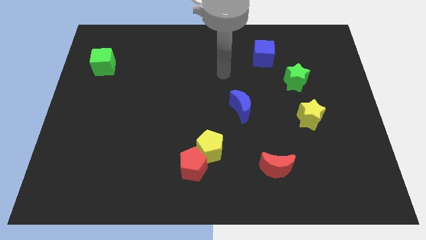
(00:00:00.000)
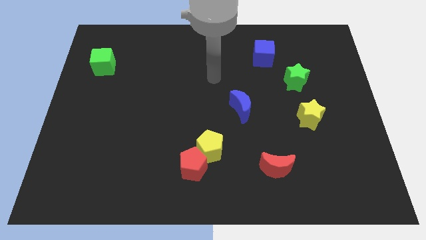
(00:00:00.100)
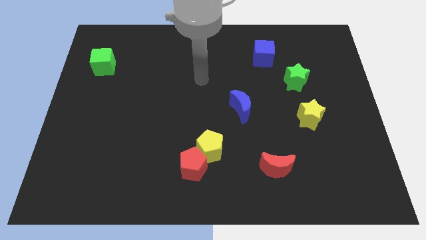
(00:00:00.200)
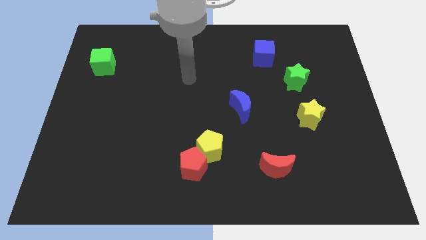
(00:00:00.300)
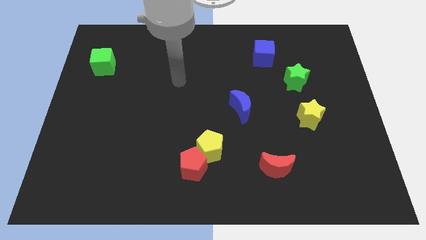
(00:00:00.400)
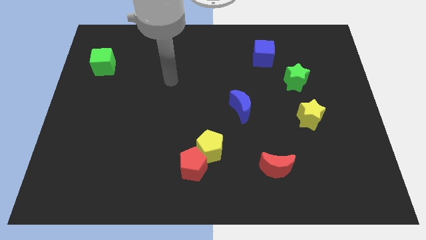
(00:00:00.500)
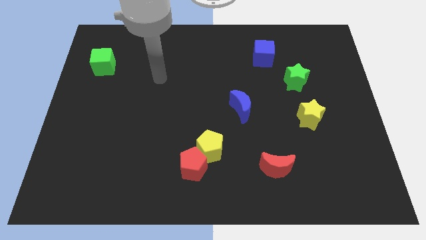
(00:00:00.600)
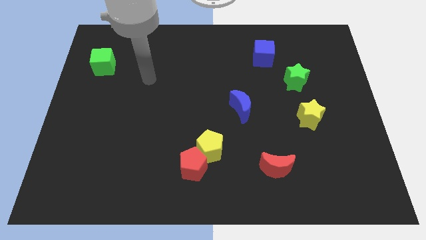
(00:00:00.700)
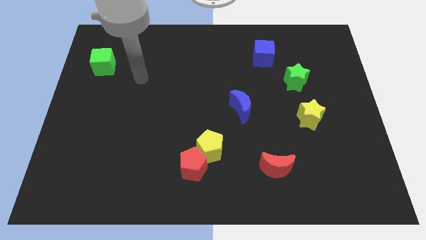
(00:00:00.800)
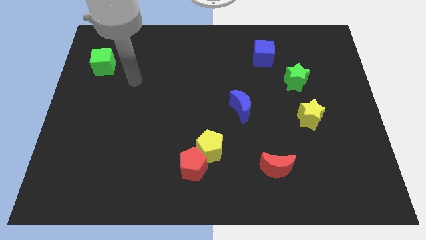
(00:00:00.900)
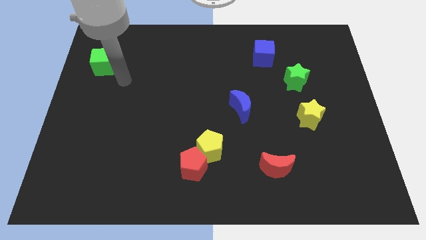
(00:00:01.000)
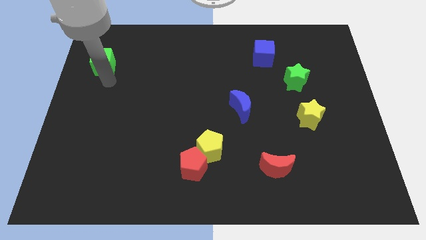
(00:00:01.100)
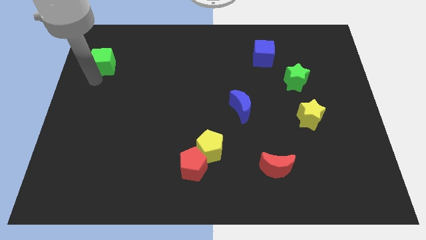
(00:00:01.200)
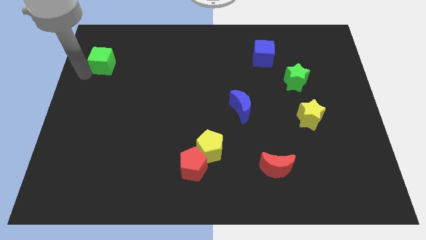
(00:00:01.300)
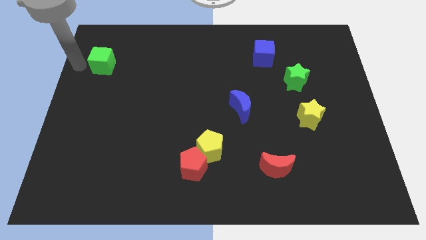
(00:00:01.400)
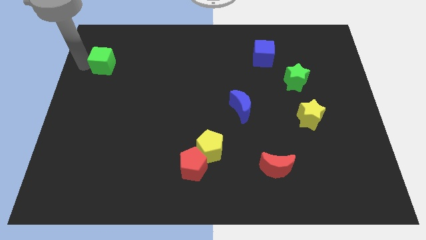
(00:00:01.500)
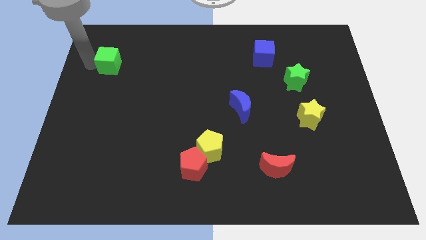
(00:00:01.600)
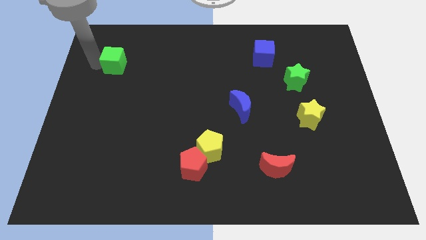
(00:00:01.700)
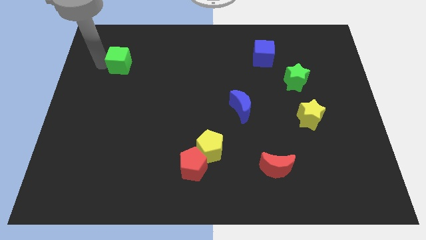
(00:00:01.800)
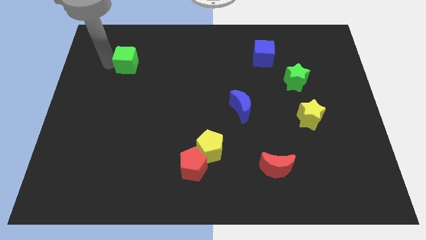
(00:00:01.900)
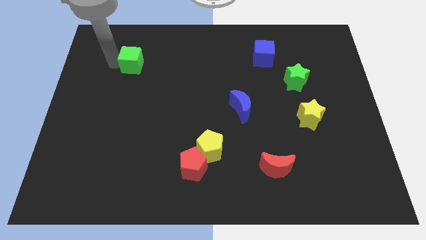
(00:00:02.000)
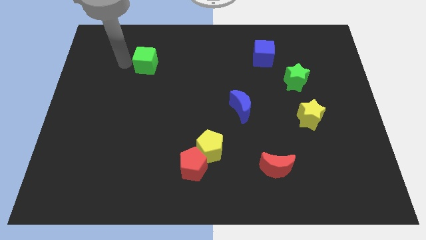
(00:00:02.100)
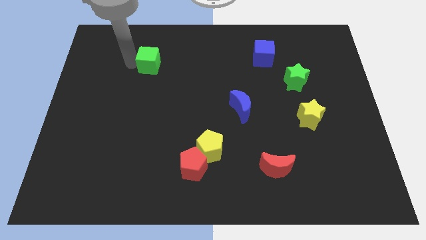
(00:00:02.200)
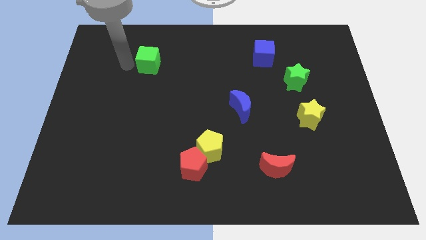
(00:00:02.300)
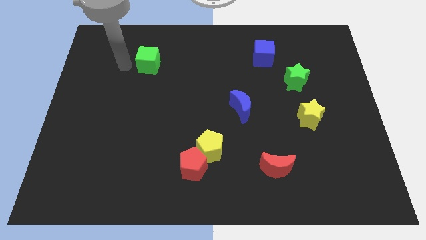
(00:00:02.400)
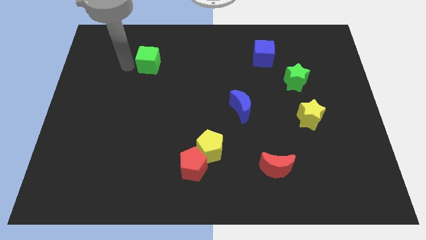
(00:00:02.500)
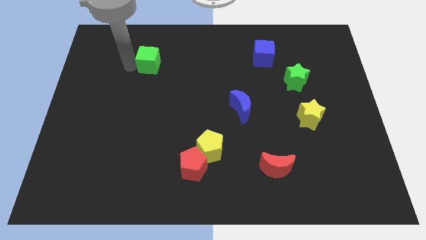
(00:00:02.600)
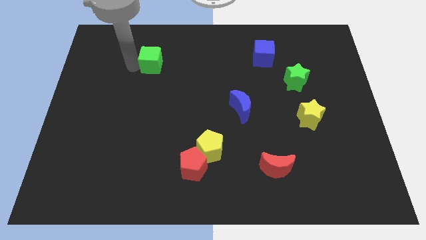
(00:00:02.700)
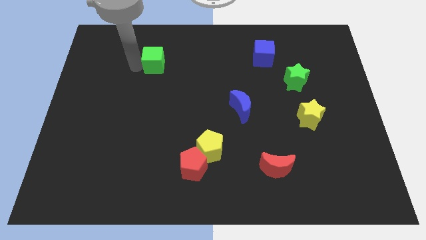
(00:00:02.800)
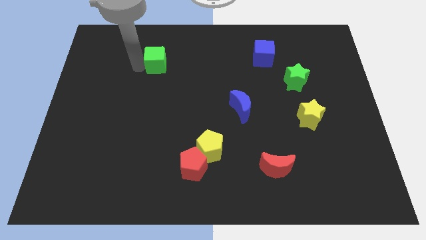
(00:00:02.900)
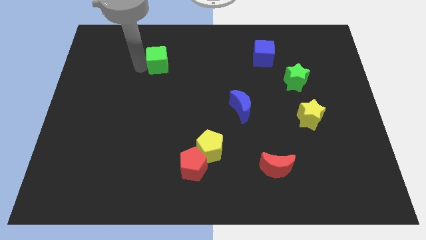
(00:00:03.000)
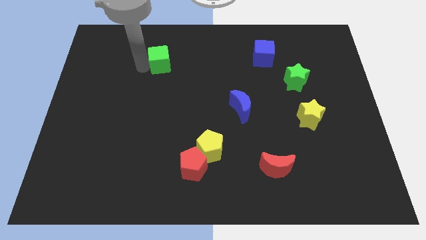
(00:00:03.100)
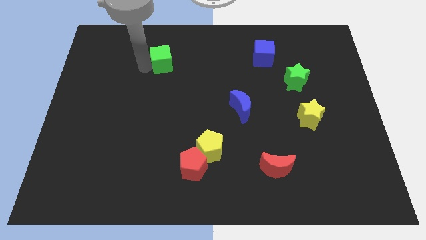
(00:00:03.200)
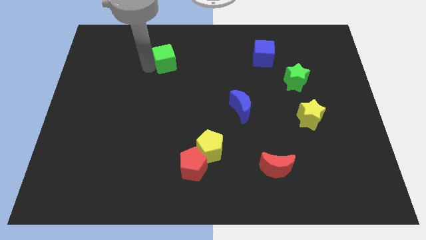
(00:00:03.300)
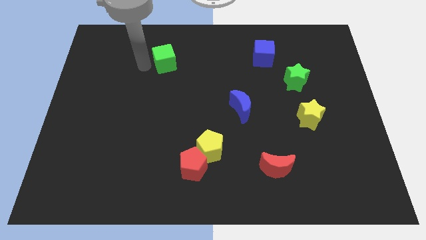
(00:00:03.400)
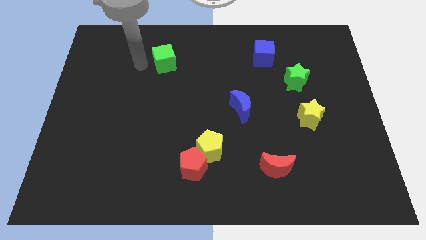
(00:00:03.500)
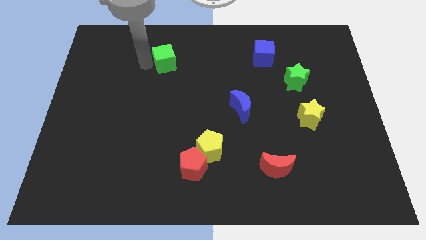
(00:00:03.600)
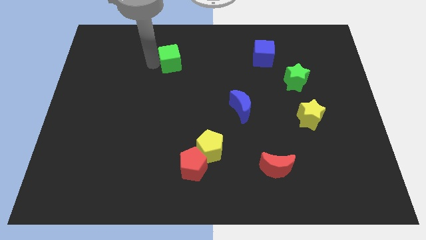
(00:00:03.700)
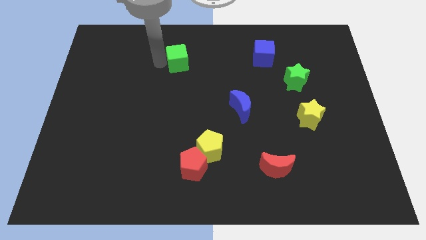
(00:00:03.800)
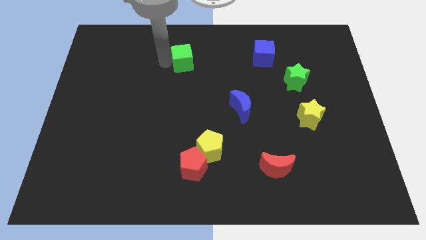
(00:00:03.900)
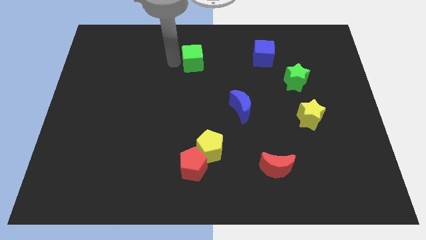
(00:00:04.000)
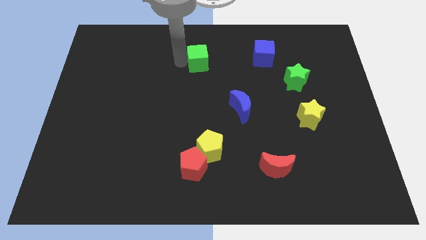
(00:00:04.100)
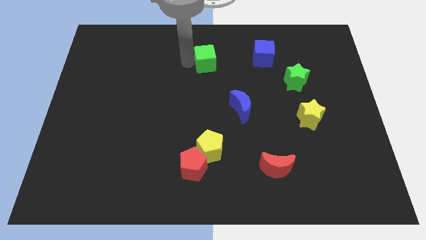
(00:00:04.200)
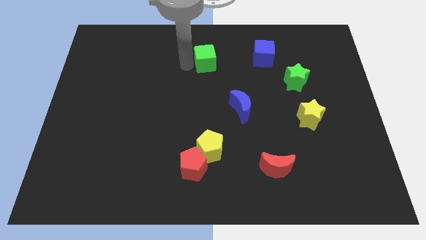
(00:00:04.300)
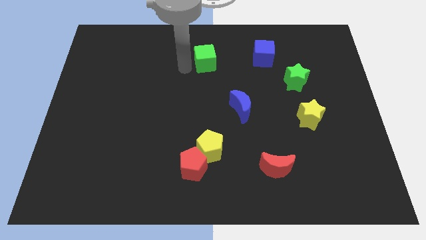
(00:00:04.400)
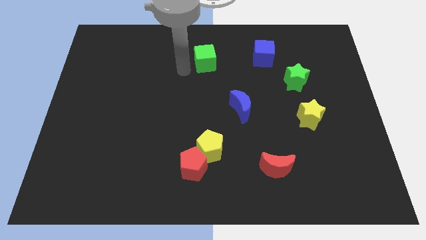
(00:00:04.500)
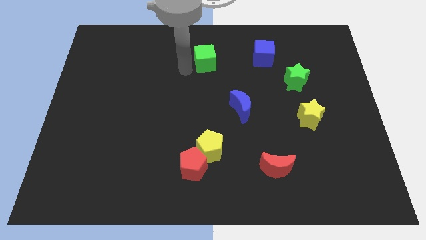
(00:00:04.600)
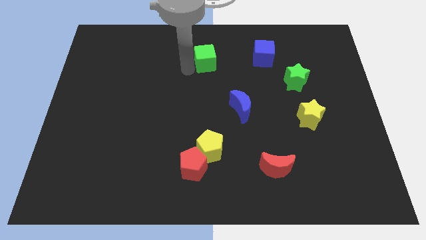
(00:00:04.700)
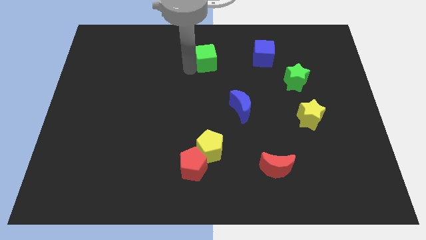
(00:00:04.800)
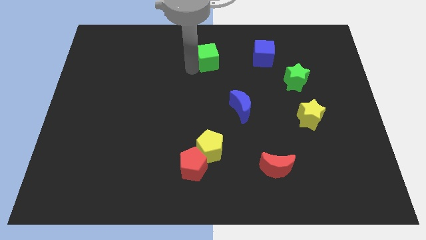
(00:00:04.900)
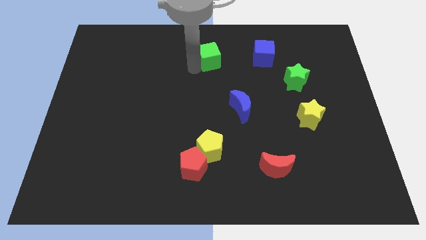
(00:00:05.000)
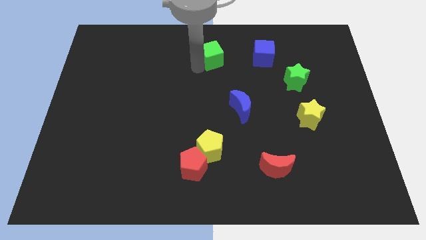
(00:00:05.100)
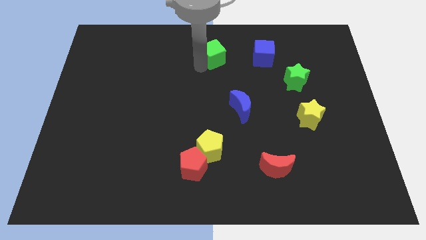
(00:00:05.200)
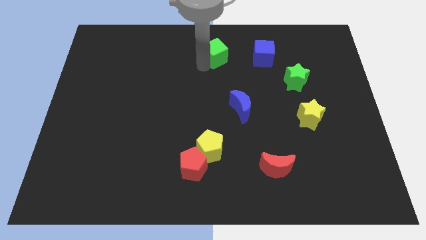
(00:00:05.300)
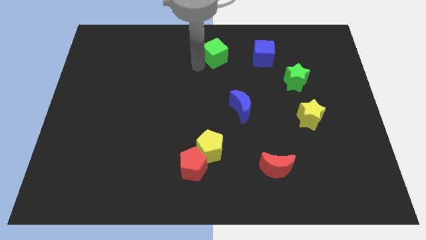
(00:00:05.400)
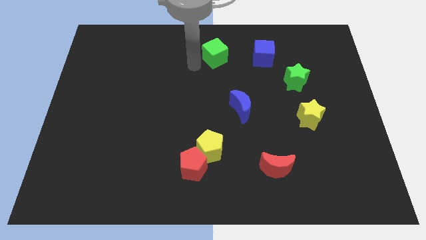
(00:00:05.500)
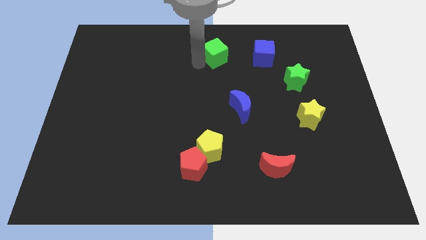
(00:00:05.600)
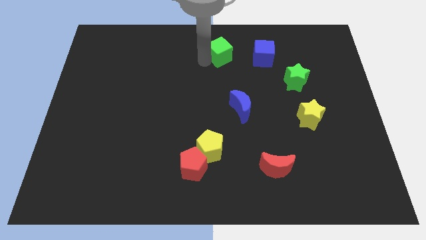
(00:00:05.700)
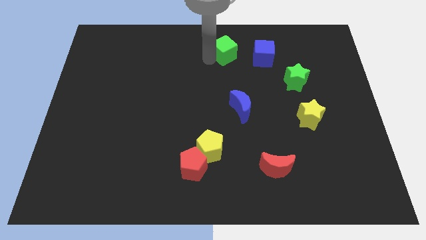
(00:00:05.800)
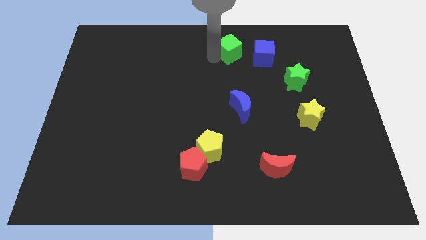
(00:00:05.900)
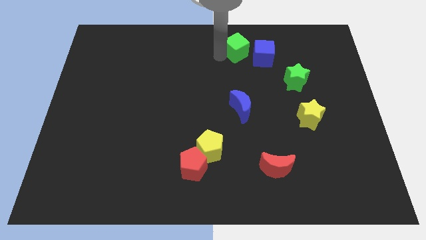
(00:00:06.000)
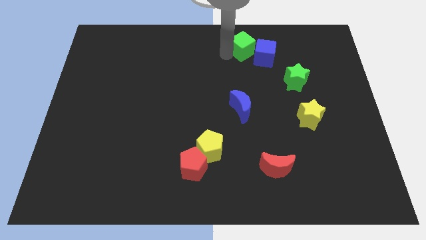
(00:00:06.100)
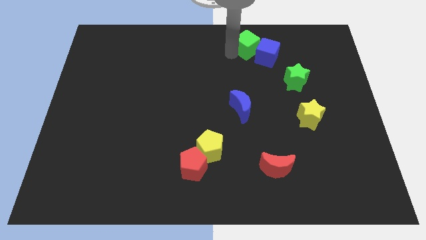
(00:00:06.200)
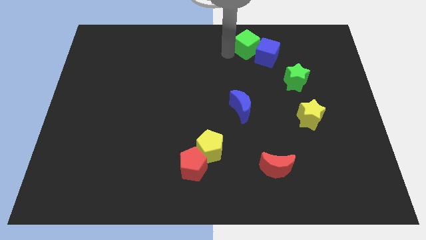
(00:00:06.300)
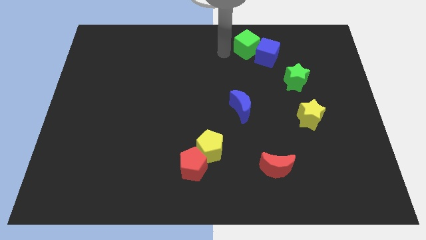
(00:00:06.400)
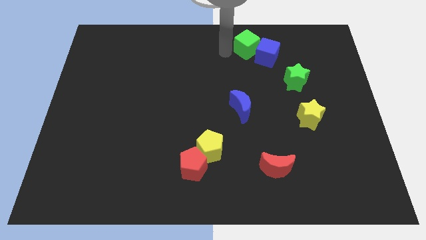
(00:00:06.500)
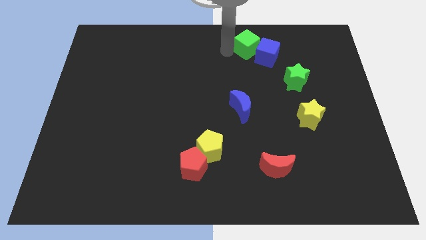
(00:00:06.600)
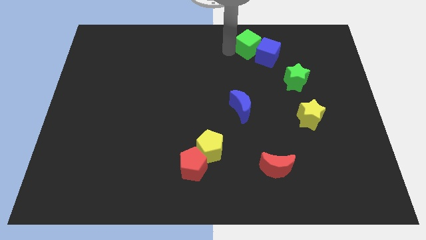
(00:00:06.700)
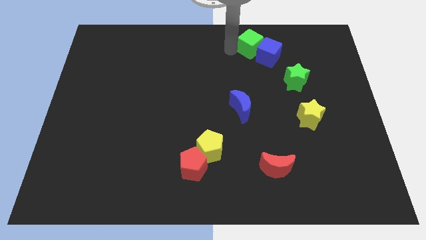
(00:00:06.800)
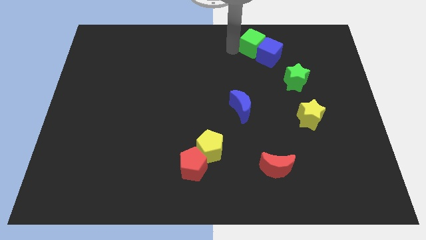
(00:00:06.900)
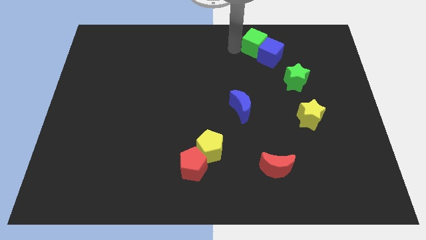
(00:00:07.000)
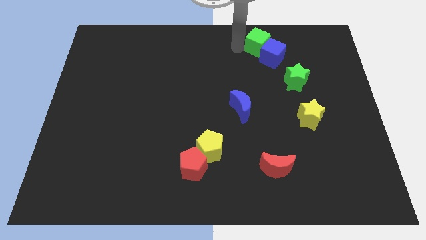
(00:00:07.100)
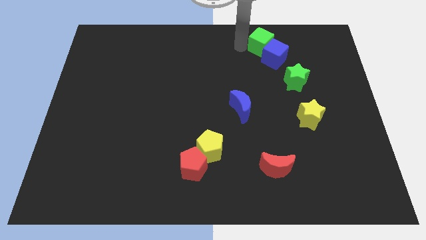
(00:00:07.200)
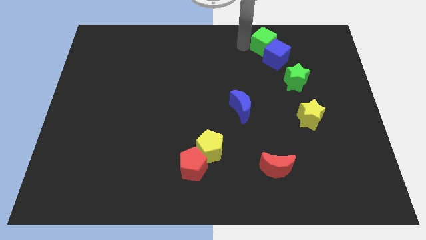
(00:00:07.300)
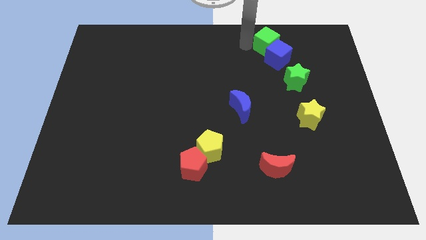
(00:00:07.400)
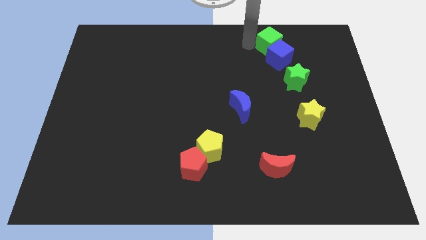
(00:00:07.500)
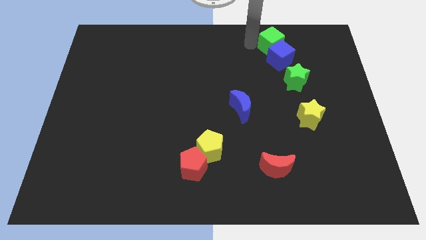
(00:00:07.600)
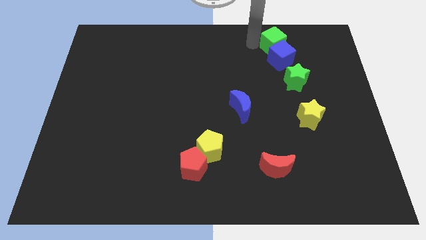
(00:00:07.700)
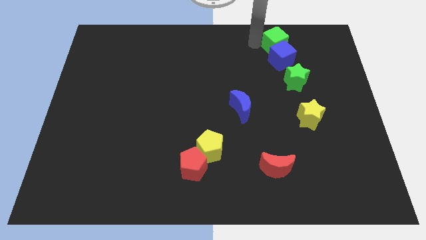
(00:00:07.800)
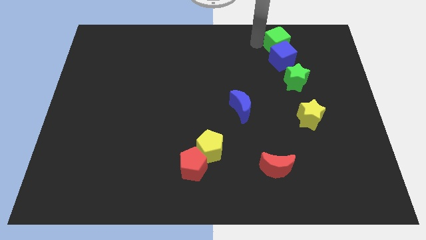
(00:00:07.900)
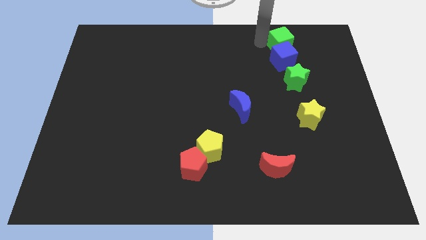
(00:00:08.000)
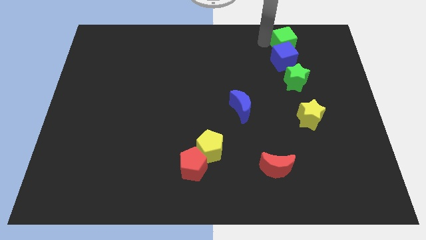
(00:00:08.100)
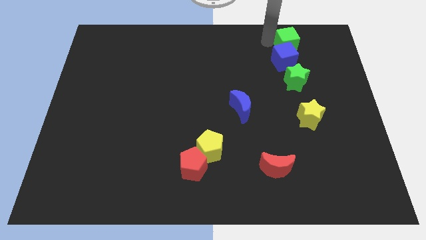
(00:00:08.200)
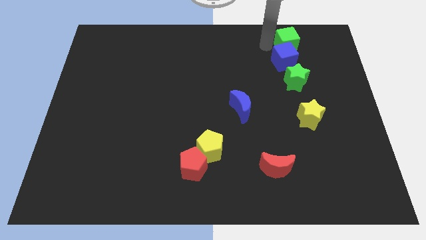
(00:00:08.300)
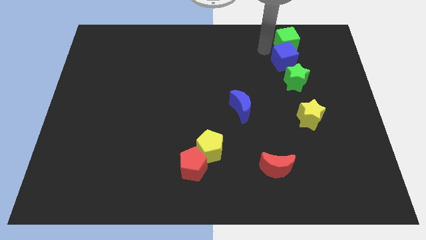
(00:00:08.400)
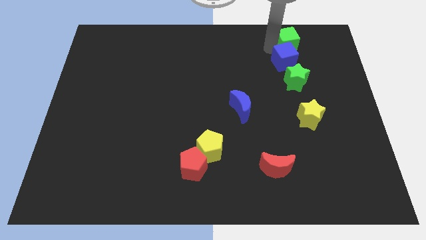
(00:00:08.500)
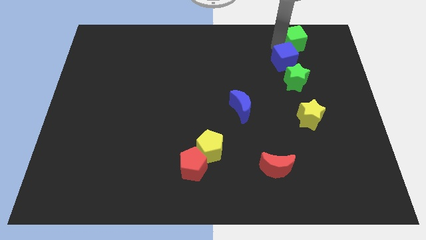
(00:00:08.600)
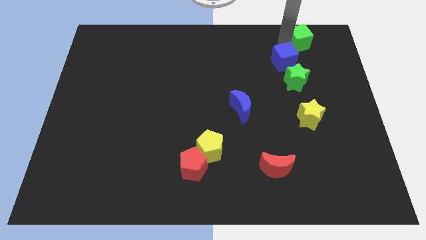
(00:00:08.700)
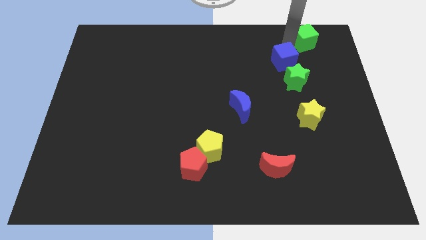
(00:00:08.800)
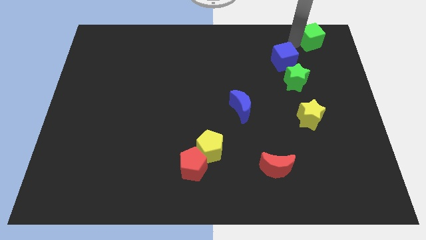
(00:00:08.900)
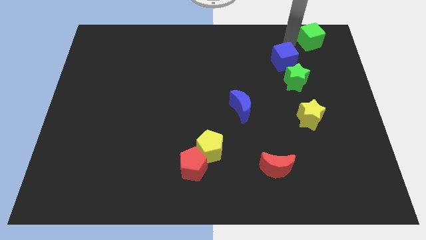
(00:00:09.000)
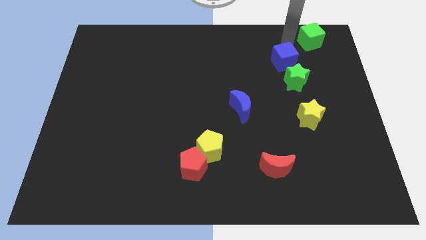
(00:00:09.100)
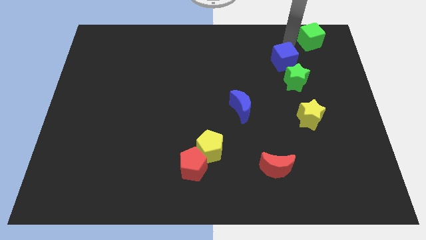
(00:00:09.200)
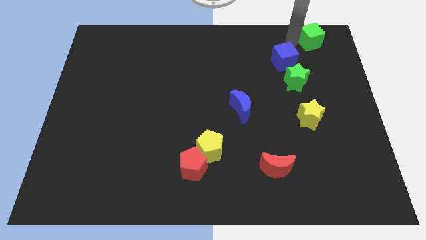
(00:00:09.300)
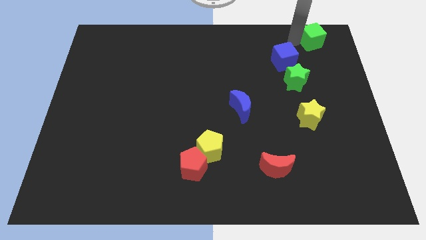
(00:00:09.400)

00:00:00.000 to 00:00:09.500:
move the green cube to the top right of the board
